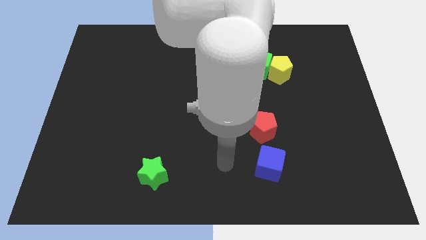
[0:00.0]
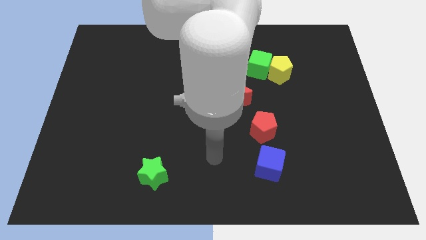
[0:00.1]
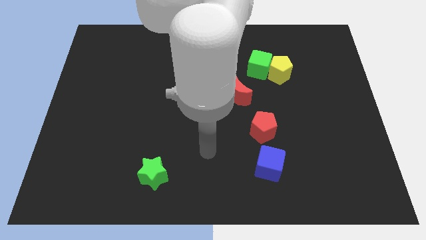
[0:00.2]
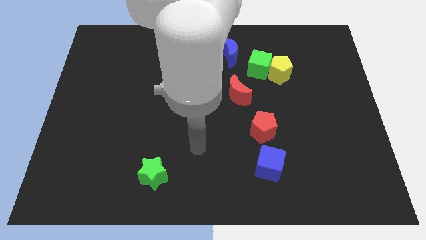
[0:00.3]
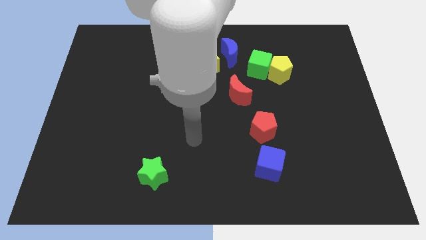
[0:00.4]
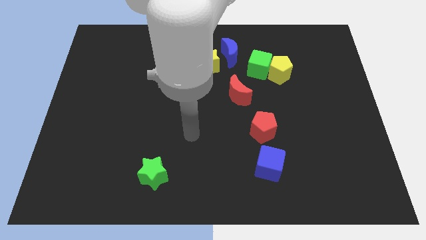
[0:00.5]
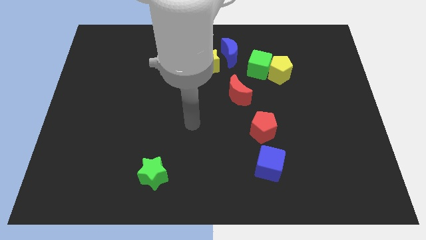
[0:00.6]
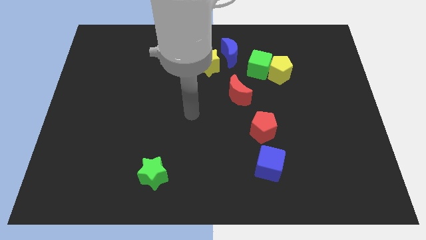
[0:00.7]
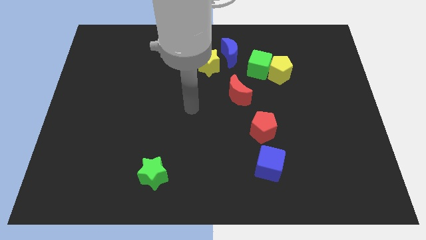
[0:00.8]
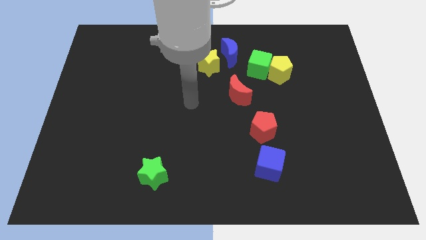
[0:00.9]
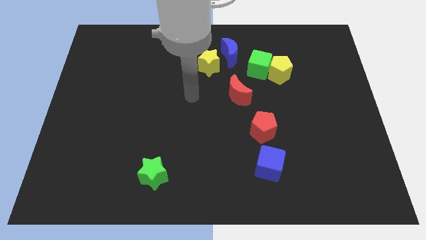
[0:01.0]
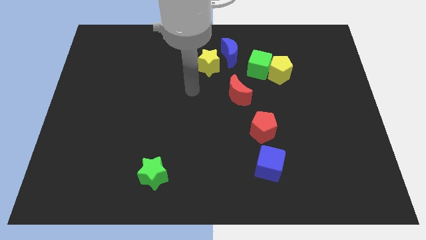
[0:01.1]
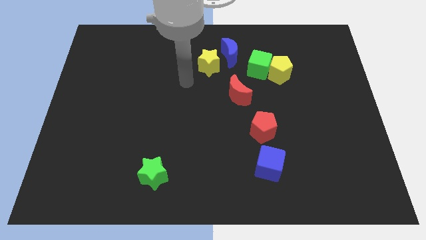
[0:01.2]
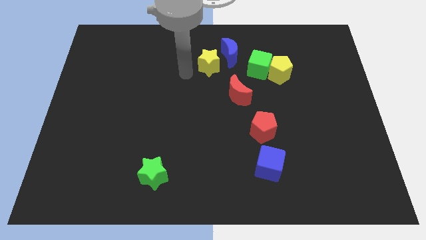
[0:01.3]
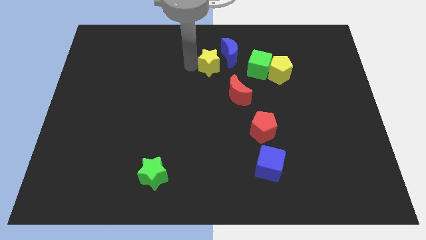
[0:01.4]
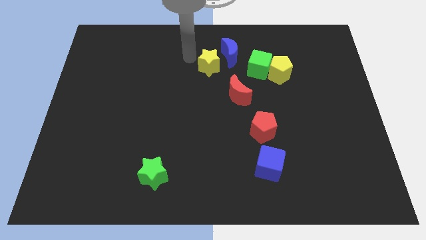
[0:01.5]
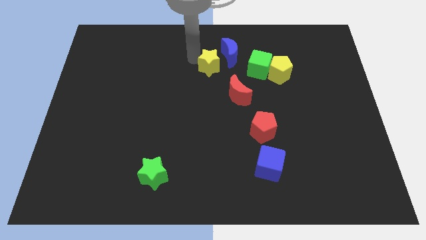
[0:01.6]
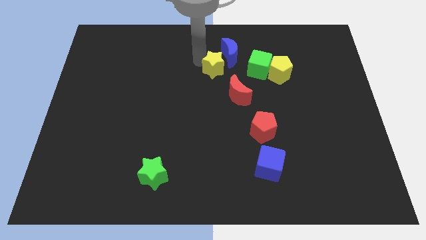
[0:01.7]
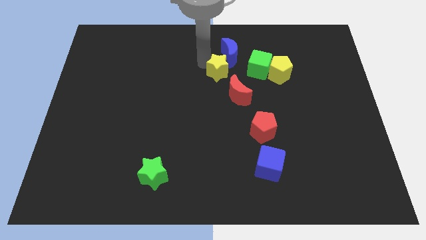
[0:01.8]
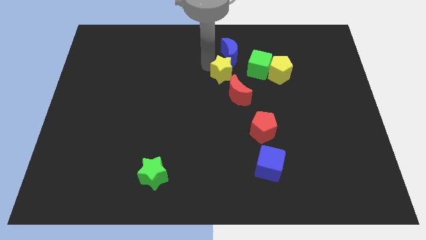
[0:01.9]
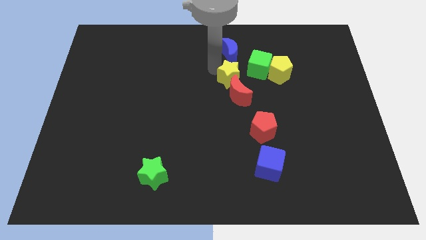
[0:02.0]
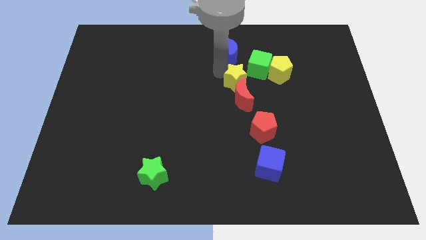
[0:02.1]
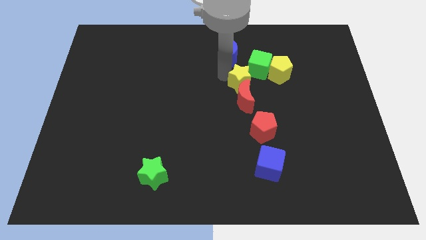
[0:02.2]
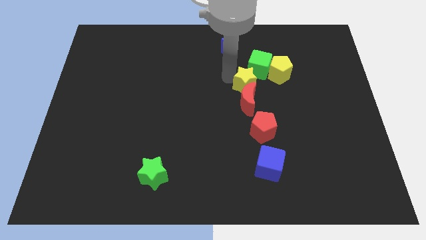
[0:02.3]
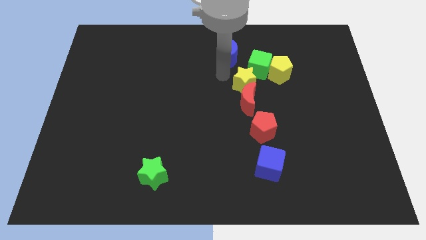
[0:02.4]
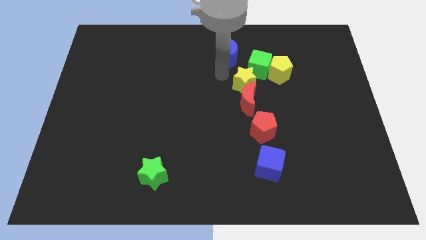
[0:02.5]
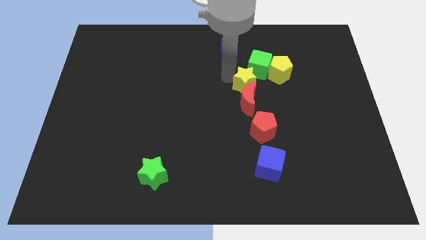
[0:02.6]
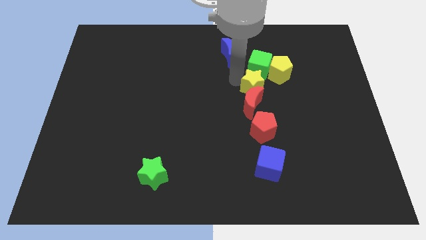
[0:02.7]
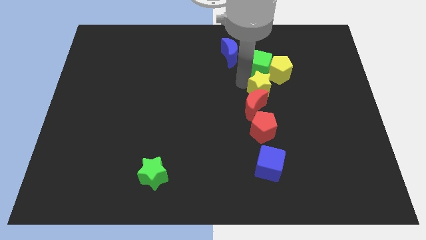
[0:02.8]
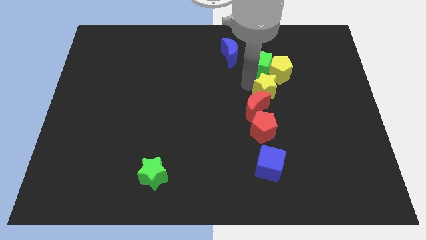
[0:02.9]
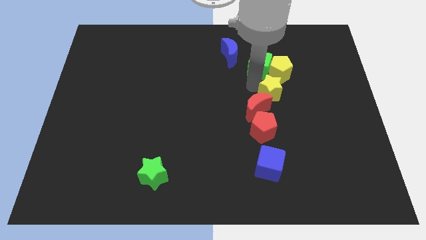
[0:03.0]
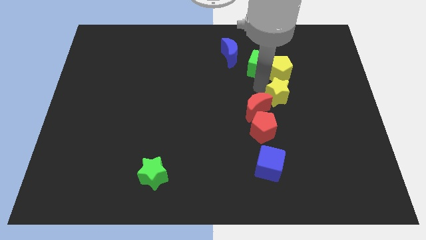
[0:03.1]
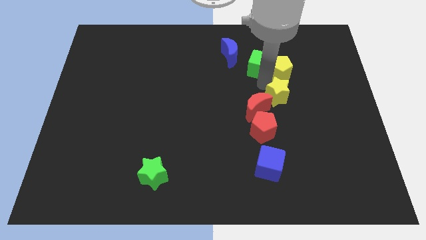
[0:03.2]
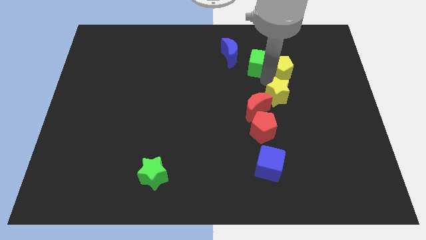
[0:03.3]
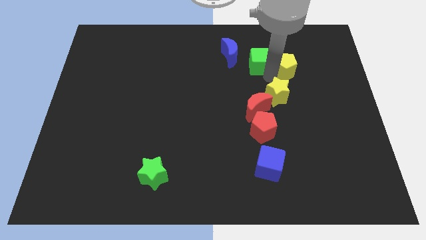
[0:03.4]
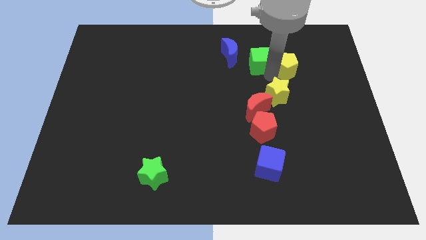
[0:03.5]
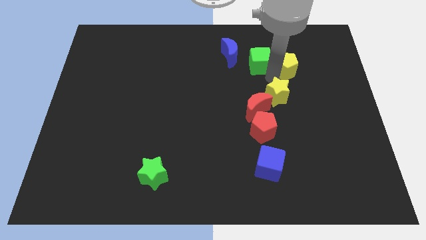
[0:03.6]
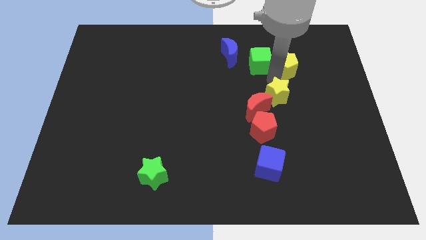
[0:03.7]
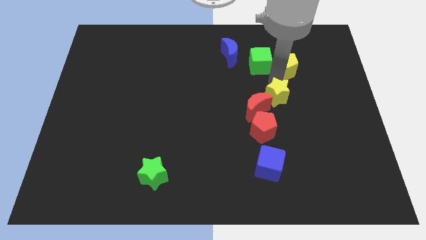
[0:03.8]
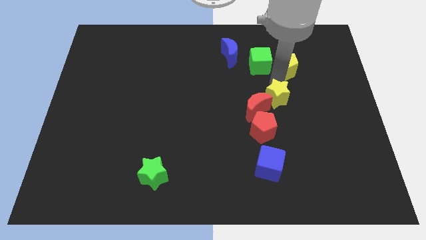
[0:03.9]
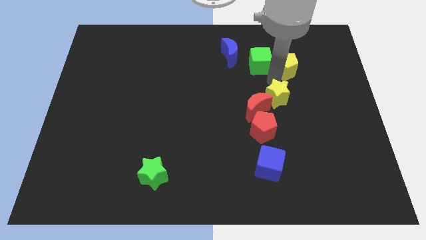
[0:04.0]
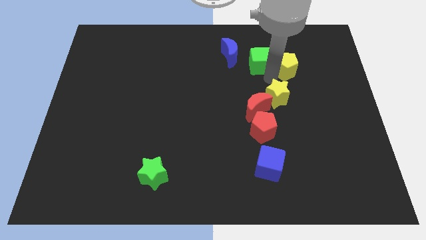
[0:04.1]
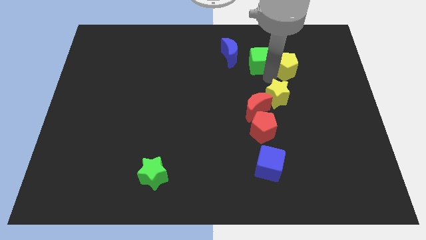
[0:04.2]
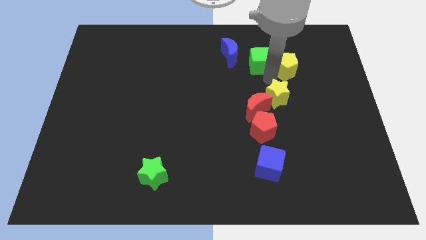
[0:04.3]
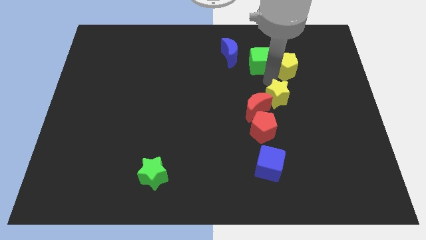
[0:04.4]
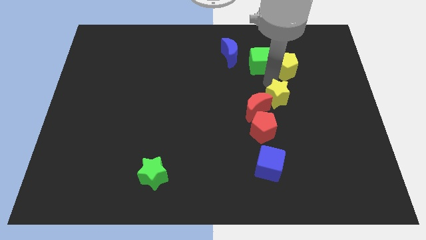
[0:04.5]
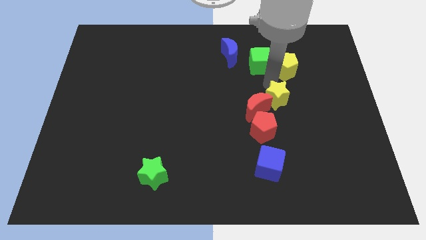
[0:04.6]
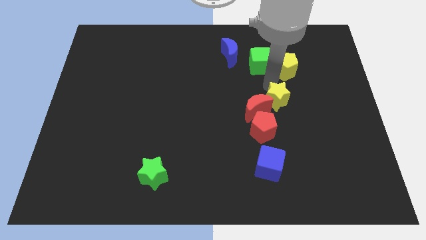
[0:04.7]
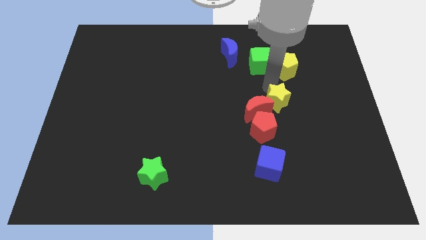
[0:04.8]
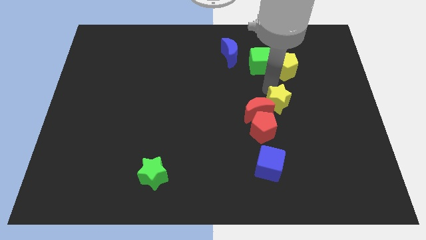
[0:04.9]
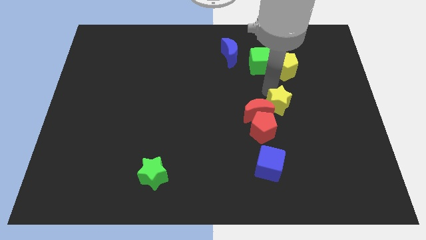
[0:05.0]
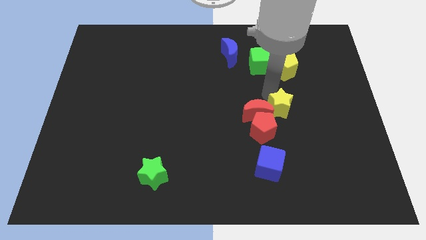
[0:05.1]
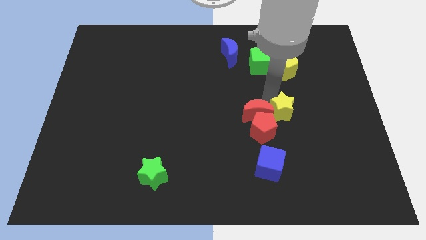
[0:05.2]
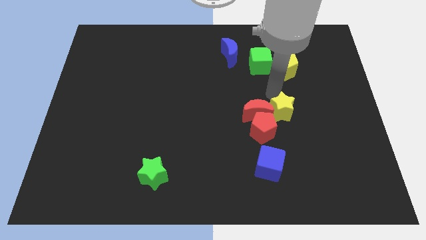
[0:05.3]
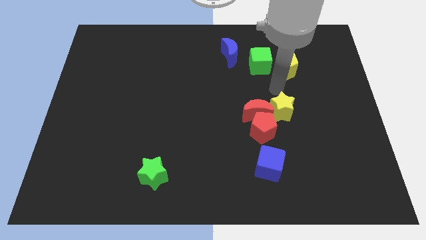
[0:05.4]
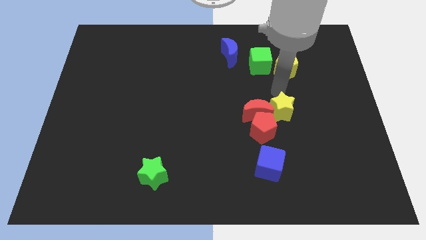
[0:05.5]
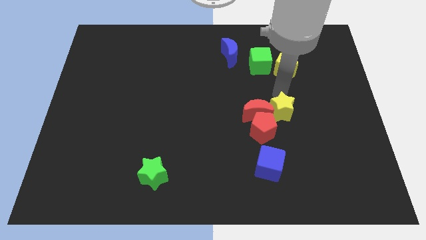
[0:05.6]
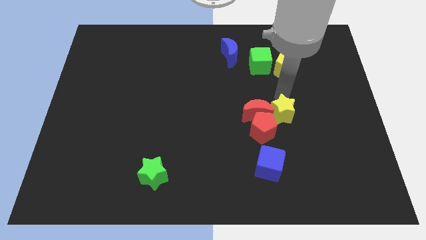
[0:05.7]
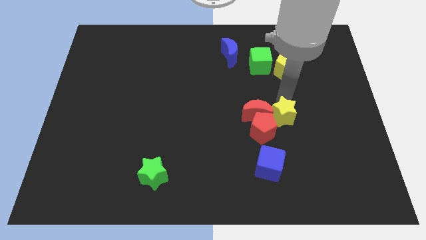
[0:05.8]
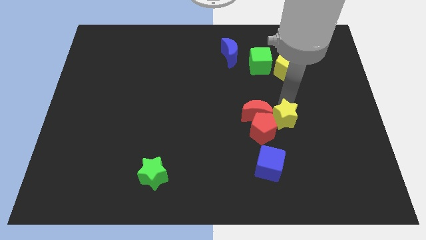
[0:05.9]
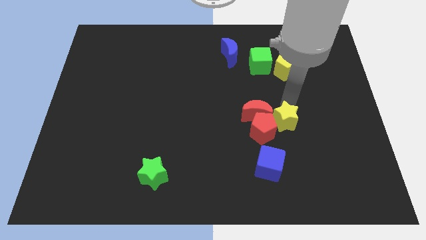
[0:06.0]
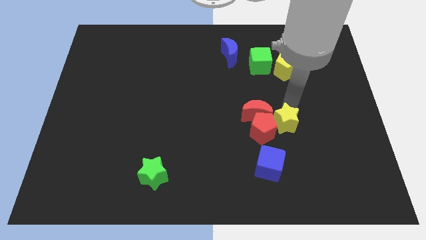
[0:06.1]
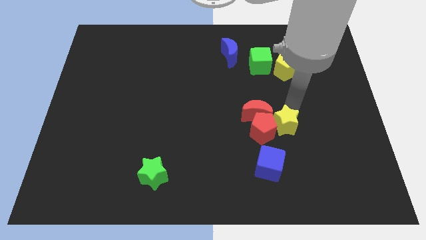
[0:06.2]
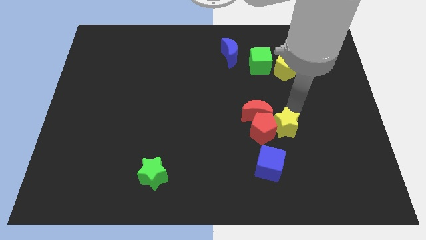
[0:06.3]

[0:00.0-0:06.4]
slide the yellow star to the top right of the blue cube

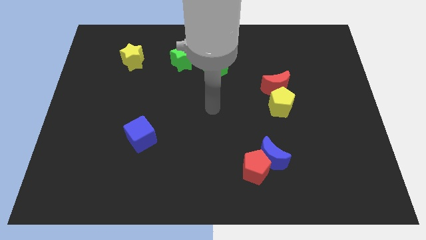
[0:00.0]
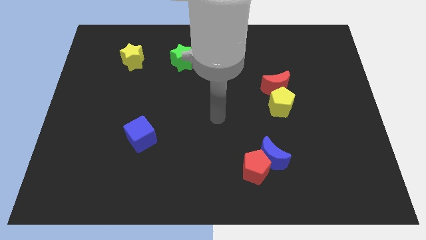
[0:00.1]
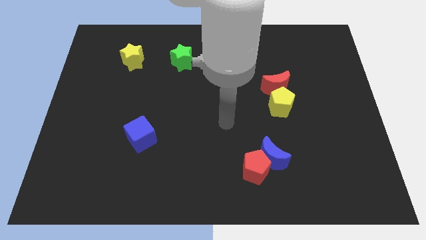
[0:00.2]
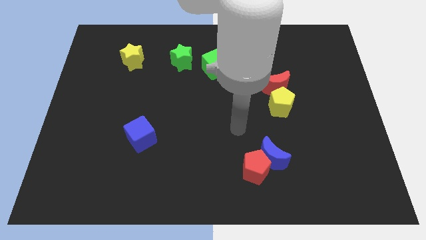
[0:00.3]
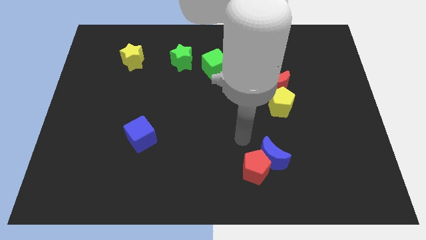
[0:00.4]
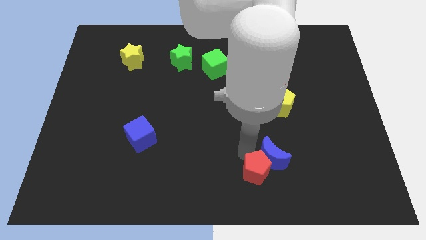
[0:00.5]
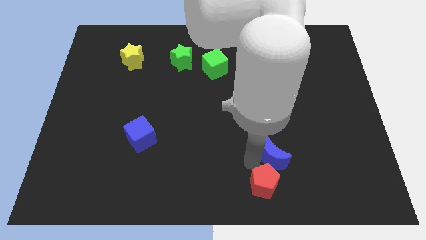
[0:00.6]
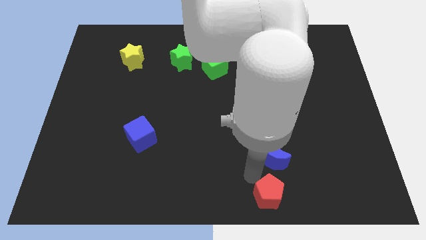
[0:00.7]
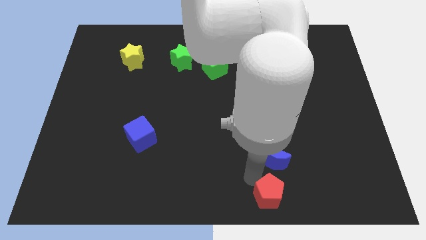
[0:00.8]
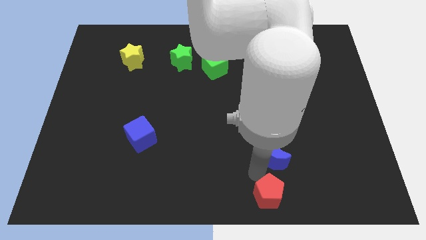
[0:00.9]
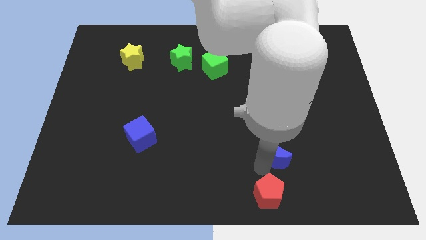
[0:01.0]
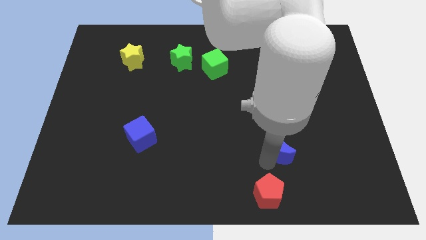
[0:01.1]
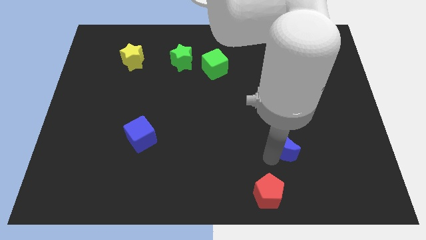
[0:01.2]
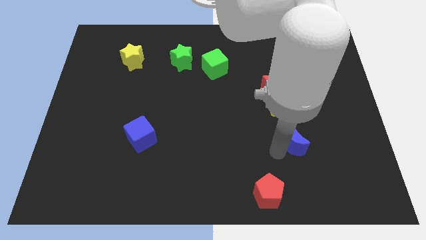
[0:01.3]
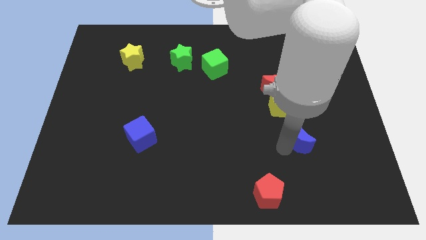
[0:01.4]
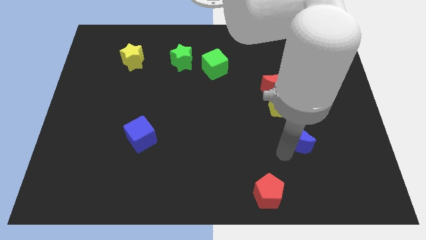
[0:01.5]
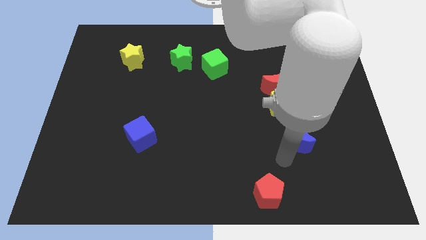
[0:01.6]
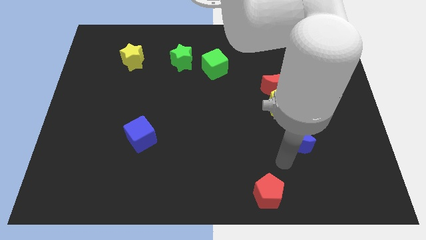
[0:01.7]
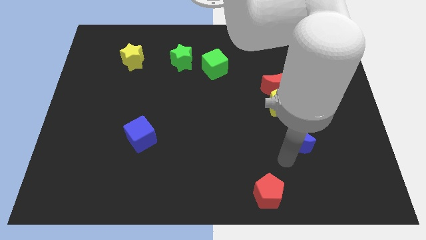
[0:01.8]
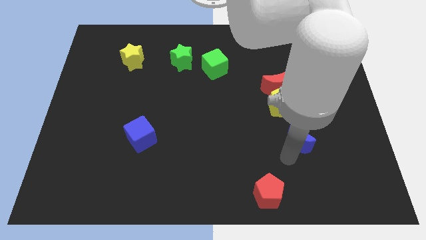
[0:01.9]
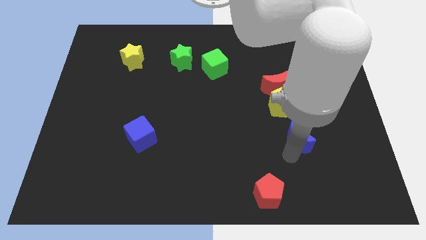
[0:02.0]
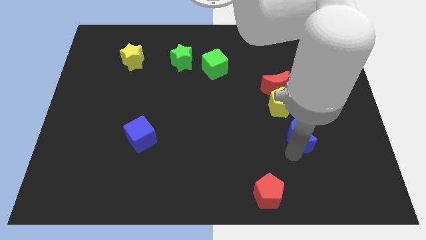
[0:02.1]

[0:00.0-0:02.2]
put the blue moon to the bottom right side of the yellow pentagon
